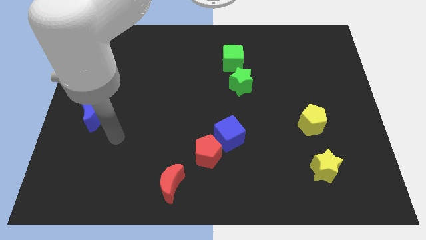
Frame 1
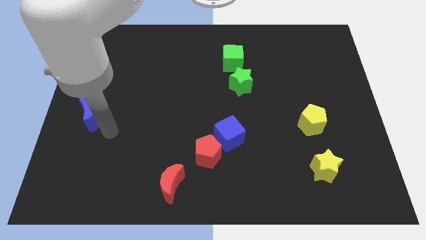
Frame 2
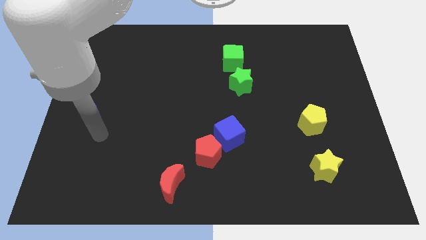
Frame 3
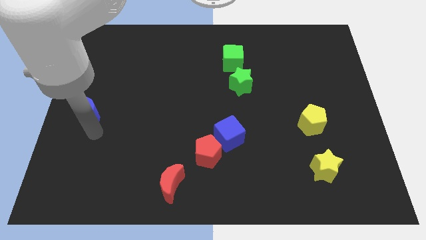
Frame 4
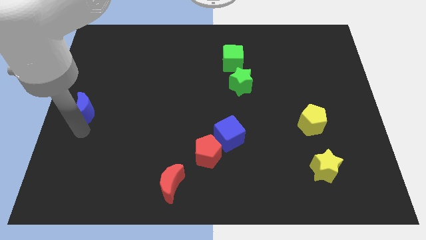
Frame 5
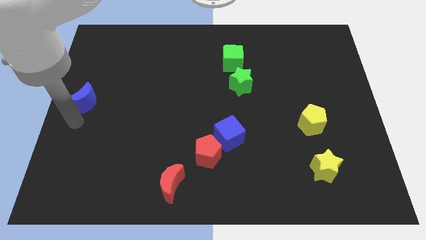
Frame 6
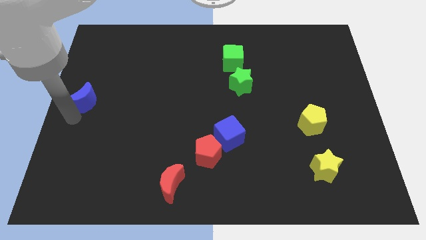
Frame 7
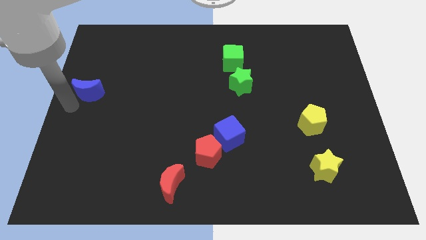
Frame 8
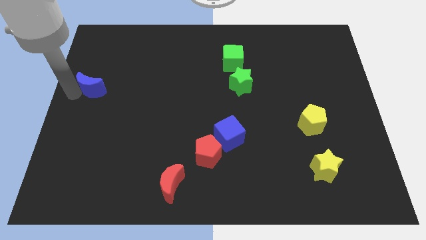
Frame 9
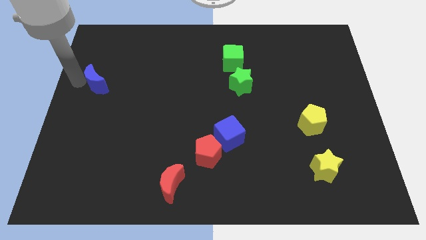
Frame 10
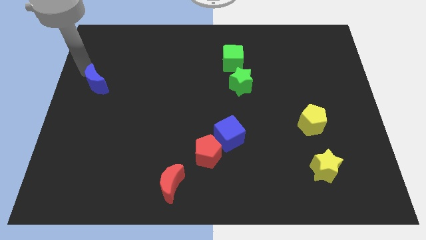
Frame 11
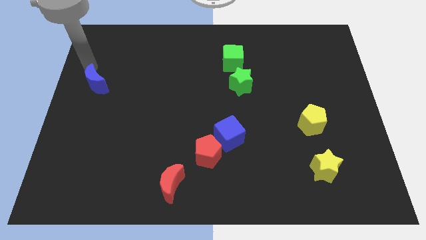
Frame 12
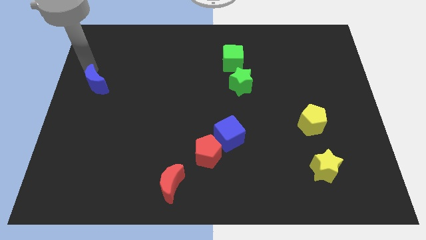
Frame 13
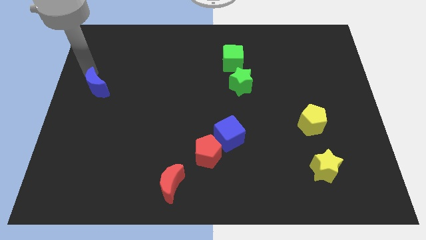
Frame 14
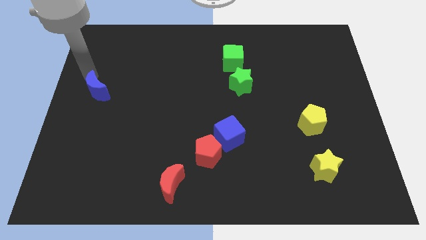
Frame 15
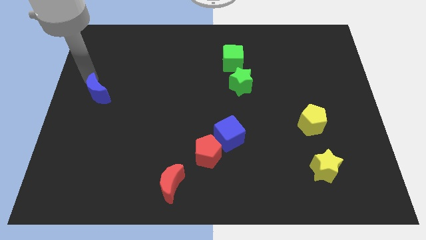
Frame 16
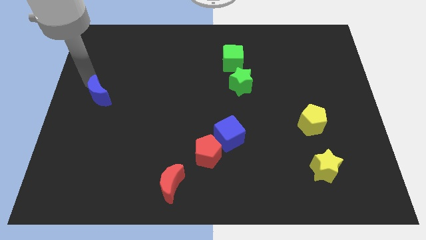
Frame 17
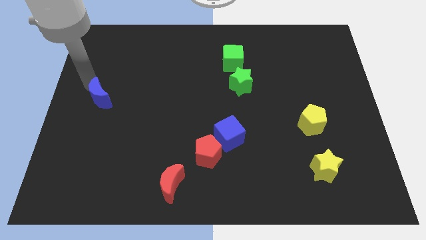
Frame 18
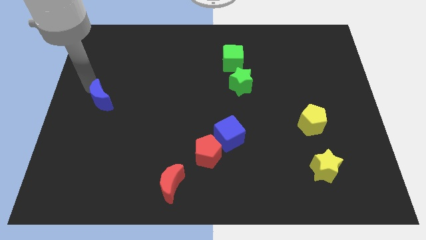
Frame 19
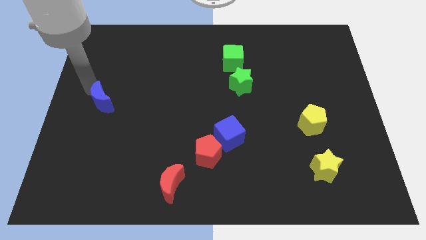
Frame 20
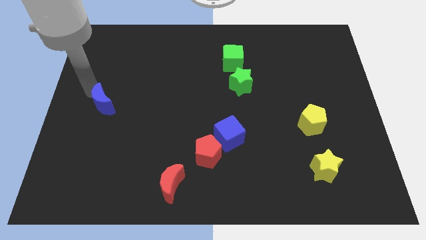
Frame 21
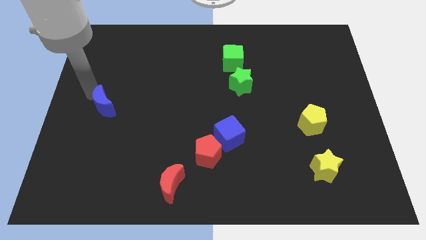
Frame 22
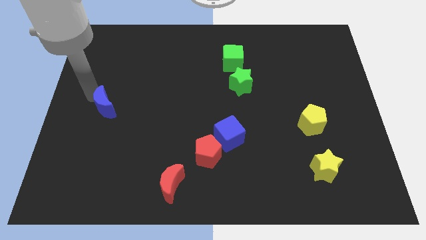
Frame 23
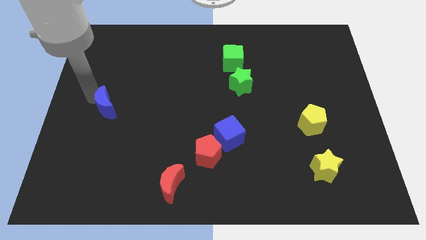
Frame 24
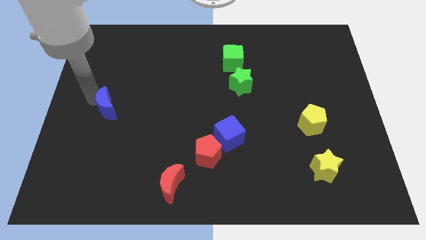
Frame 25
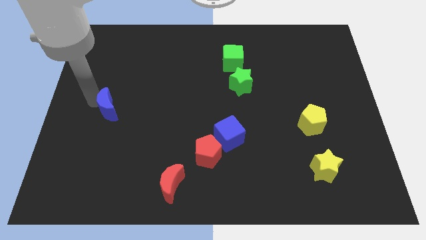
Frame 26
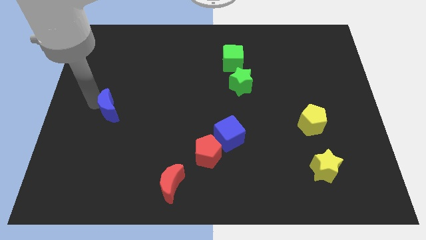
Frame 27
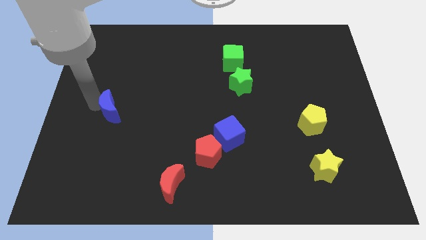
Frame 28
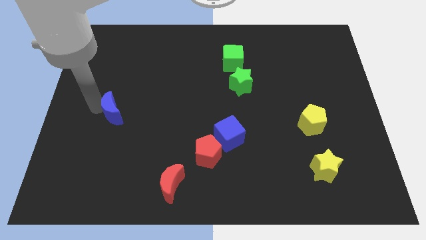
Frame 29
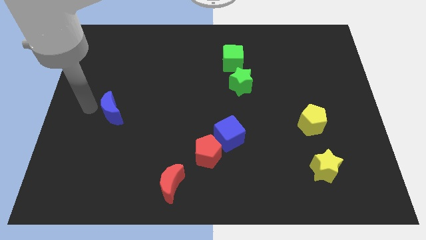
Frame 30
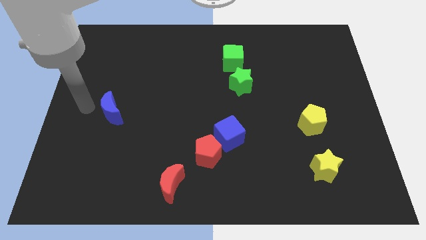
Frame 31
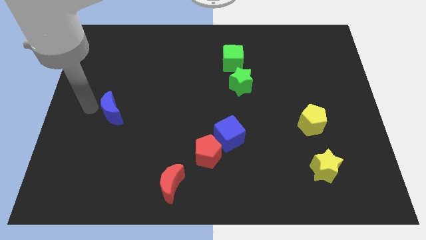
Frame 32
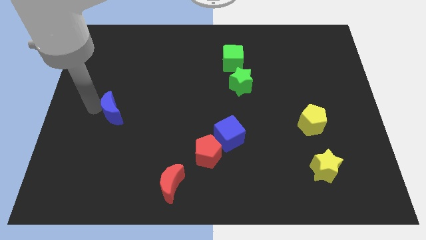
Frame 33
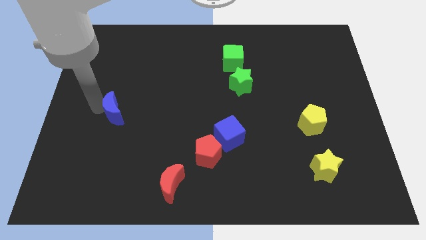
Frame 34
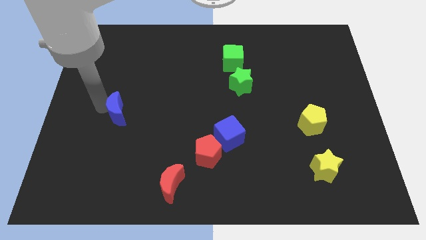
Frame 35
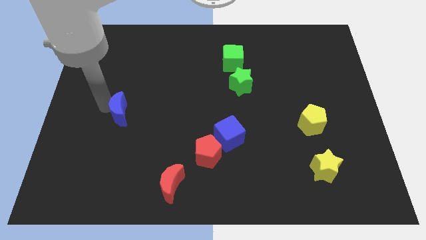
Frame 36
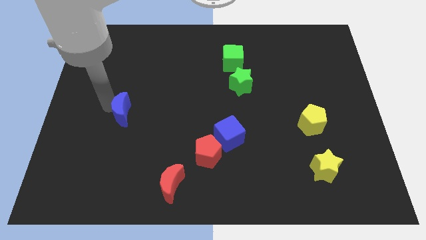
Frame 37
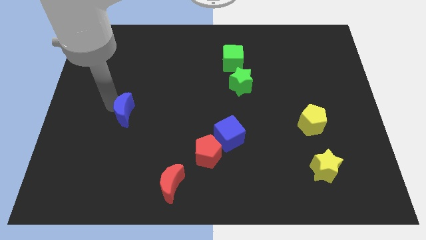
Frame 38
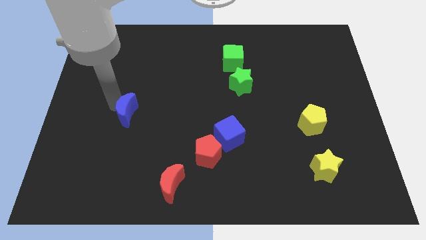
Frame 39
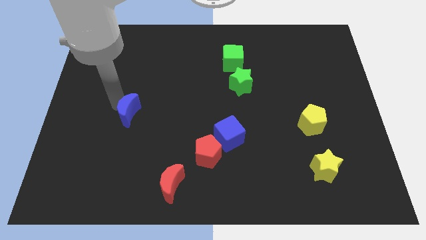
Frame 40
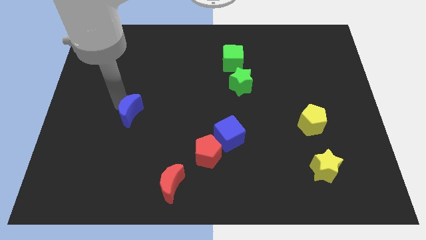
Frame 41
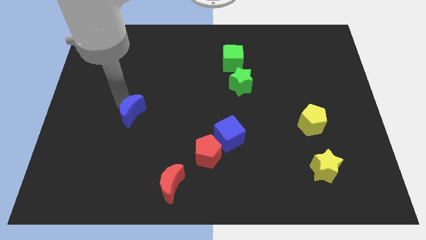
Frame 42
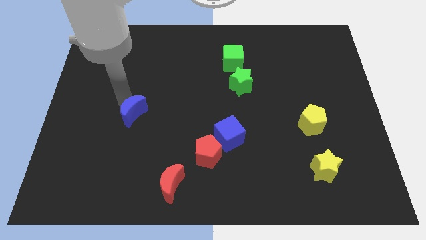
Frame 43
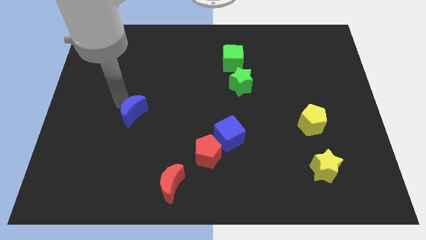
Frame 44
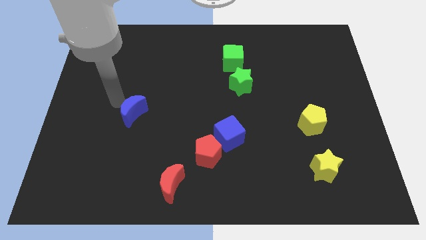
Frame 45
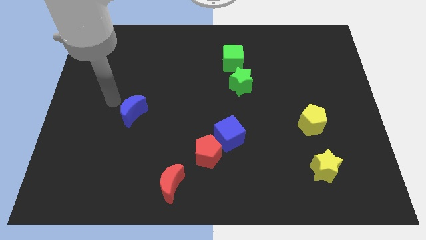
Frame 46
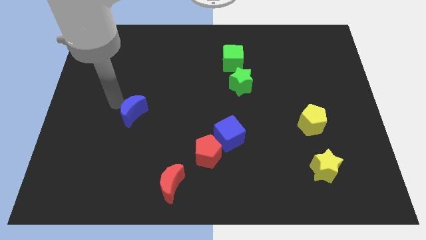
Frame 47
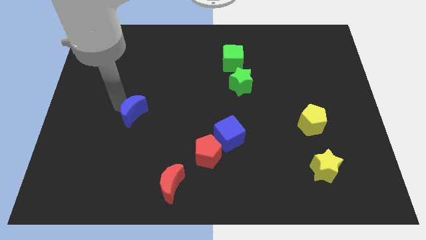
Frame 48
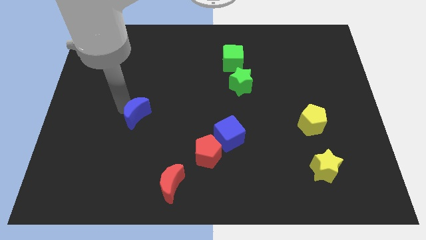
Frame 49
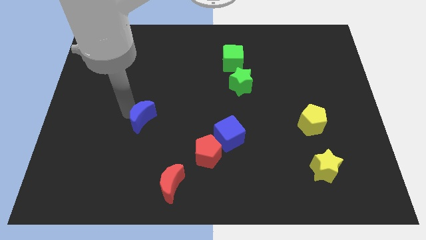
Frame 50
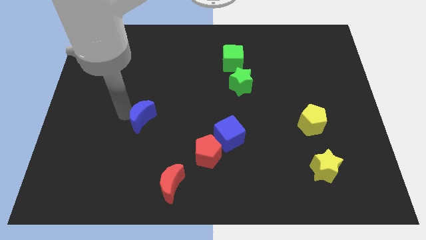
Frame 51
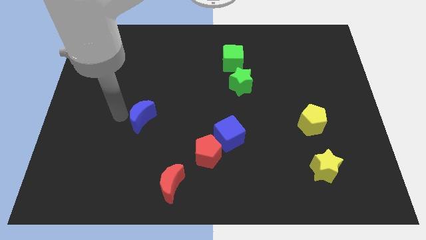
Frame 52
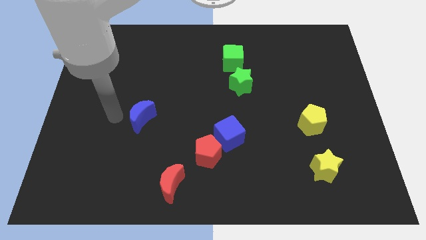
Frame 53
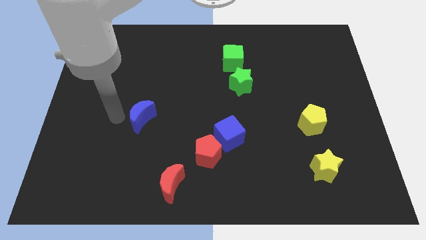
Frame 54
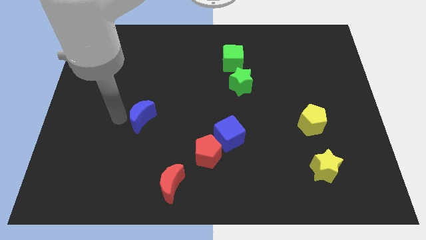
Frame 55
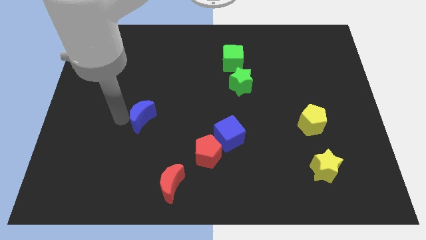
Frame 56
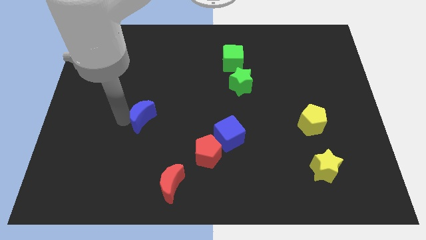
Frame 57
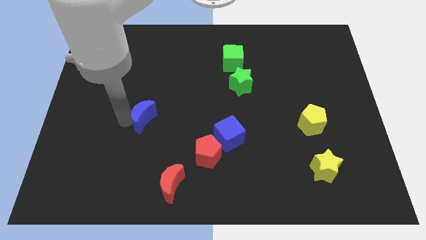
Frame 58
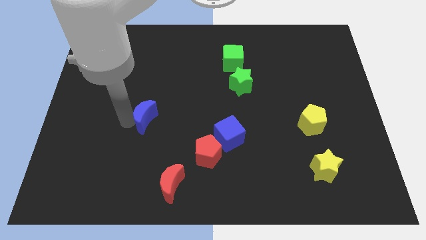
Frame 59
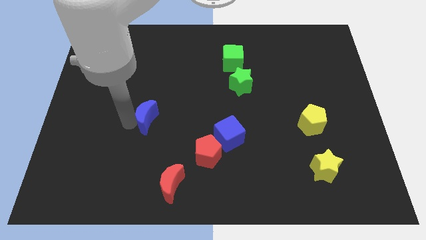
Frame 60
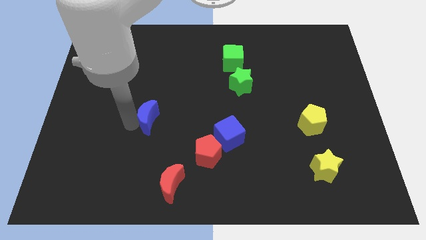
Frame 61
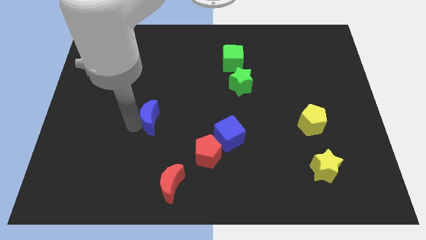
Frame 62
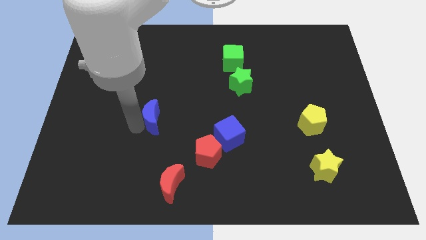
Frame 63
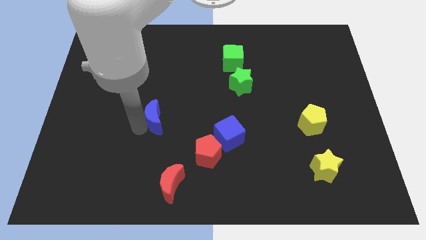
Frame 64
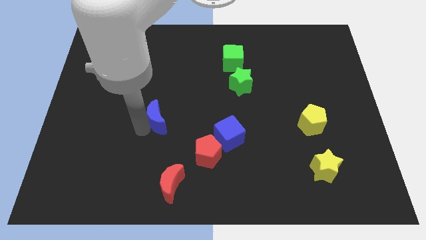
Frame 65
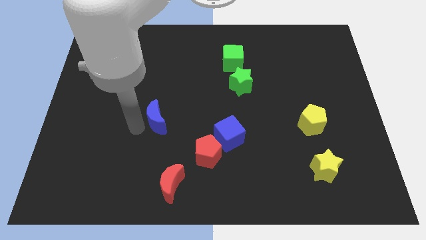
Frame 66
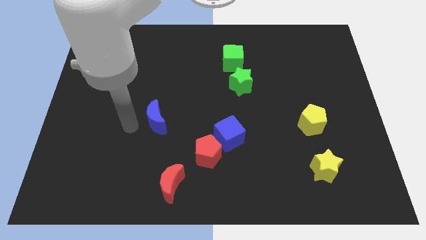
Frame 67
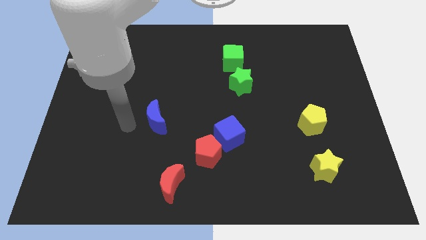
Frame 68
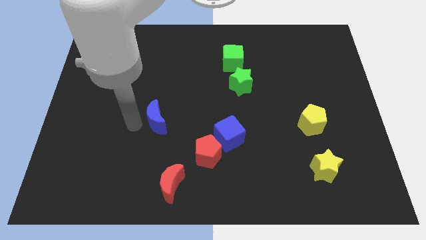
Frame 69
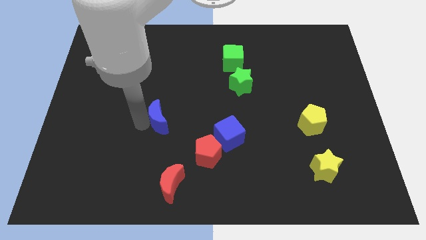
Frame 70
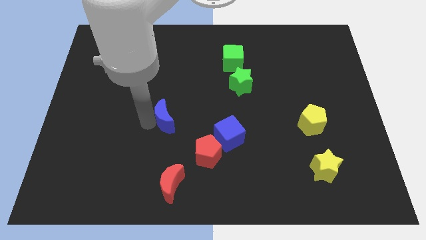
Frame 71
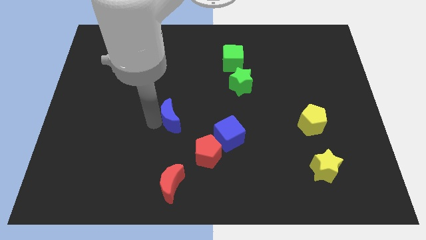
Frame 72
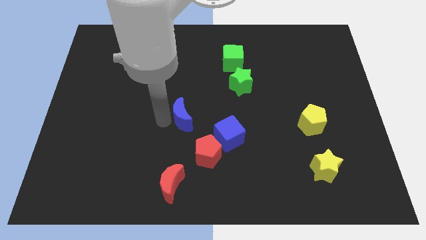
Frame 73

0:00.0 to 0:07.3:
move the blue moon to the right

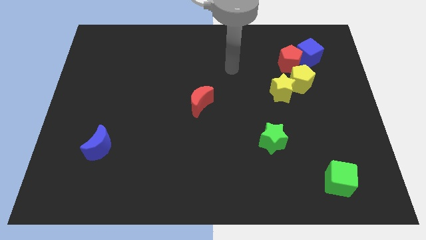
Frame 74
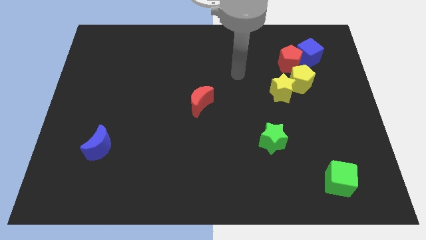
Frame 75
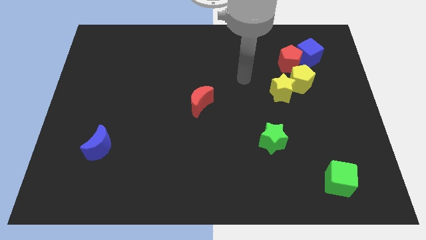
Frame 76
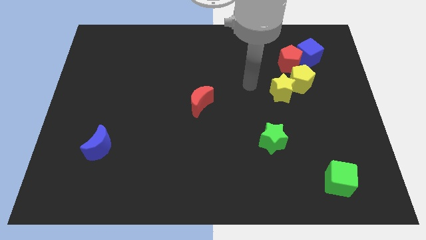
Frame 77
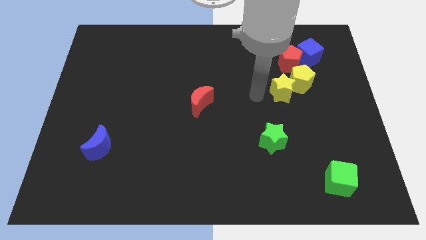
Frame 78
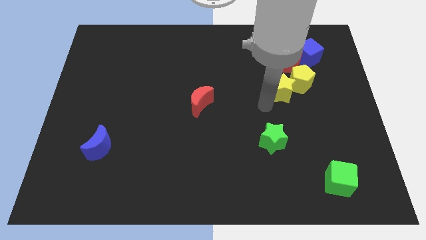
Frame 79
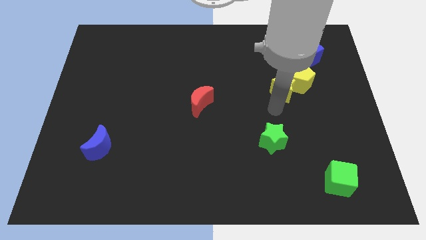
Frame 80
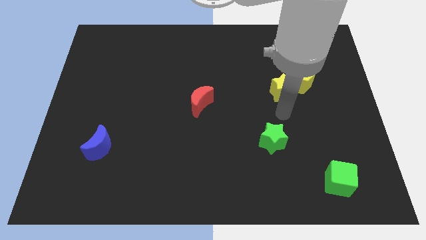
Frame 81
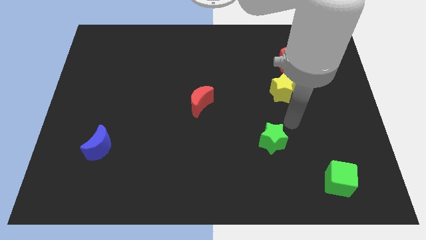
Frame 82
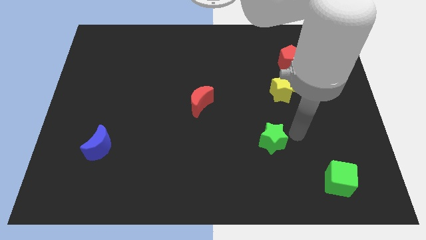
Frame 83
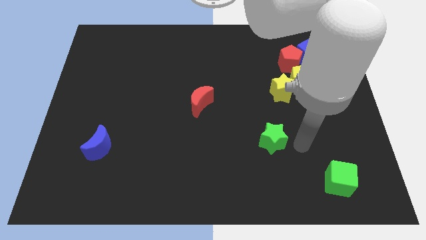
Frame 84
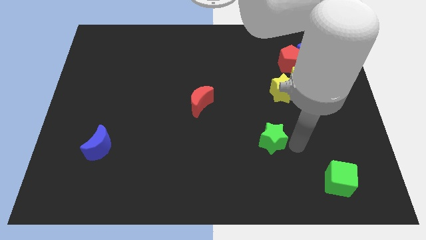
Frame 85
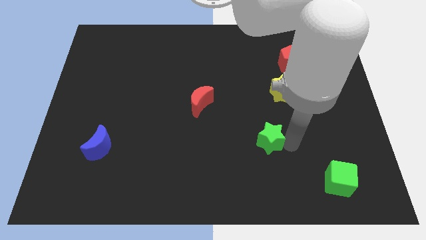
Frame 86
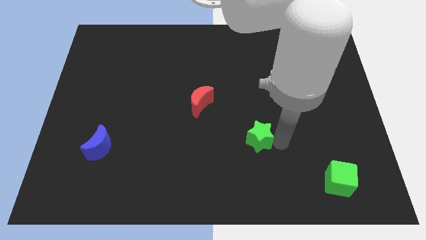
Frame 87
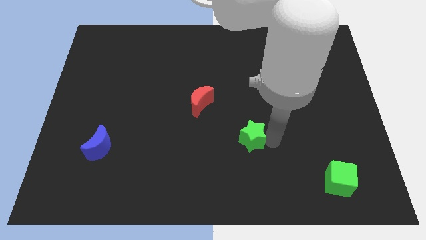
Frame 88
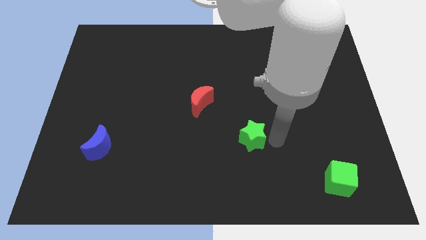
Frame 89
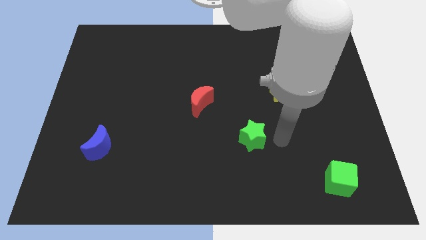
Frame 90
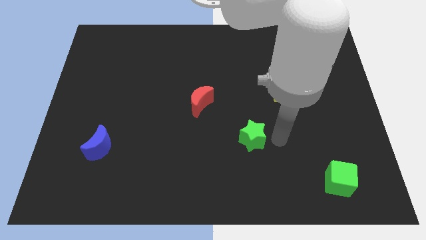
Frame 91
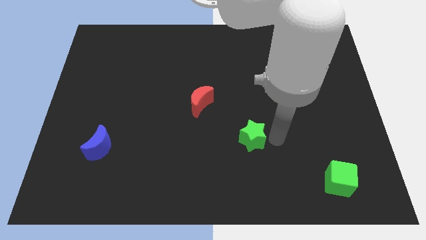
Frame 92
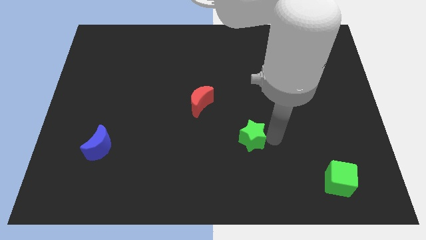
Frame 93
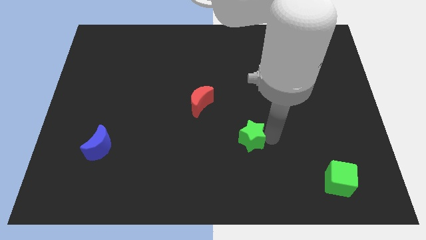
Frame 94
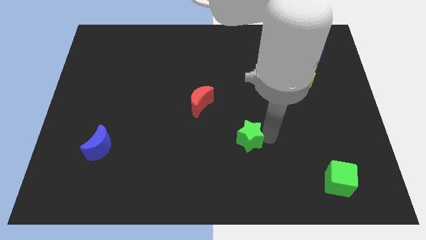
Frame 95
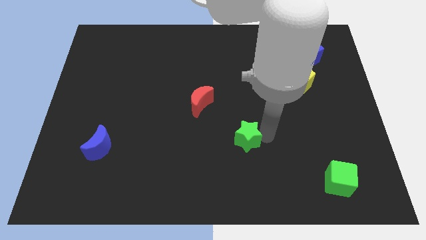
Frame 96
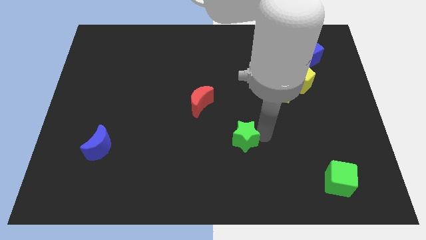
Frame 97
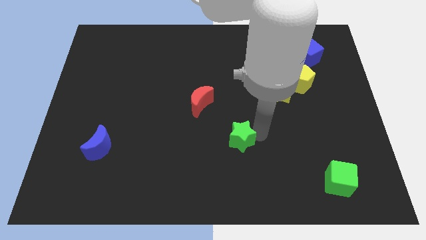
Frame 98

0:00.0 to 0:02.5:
push the green star to the left a little
